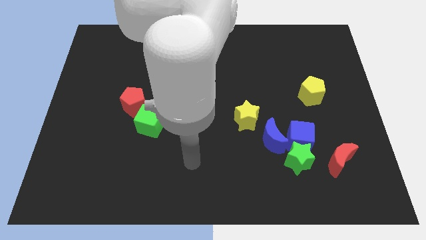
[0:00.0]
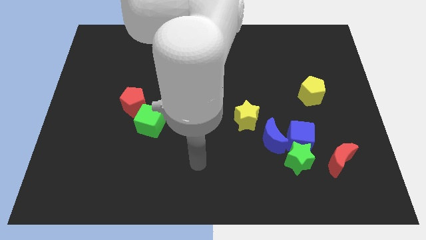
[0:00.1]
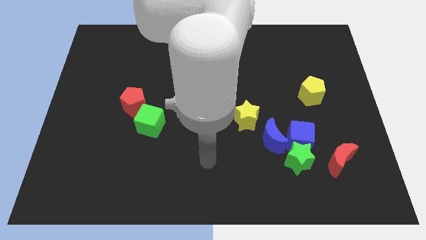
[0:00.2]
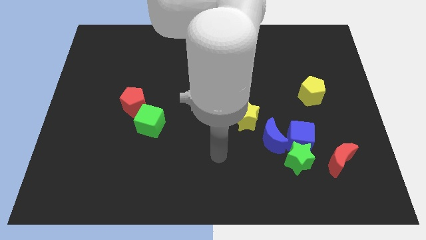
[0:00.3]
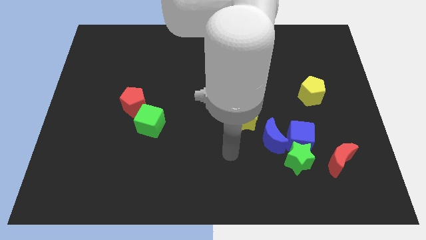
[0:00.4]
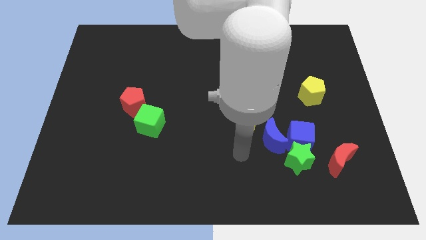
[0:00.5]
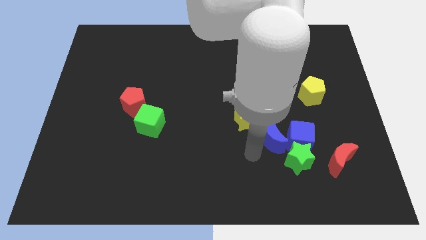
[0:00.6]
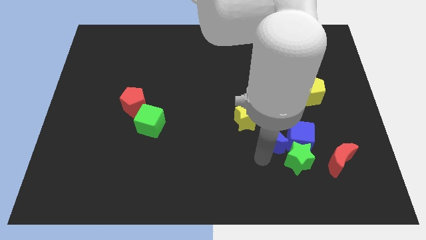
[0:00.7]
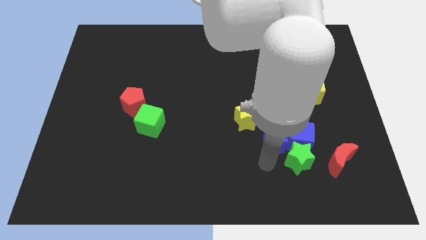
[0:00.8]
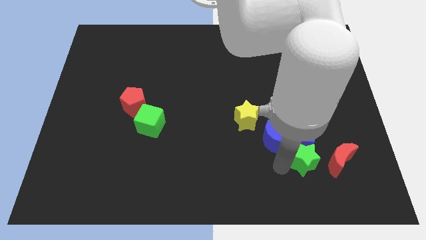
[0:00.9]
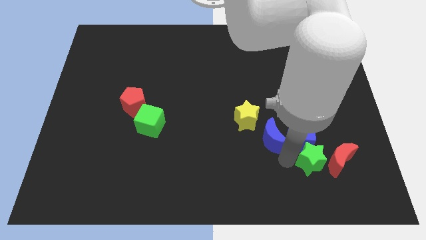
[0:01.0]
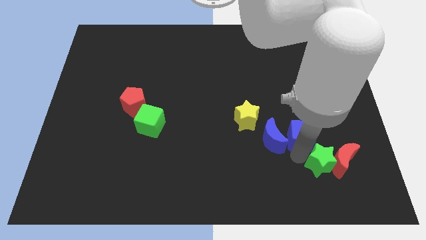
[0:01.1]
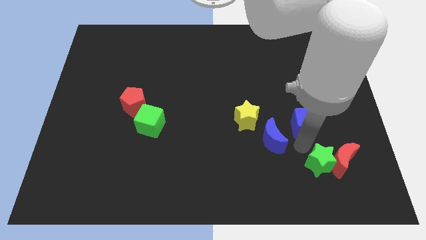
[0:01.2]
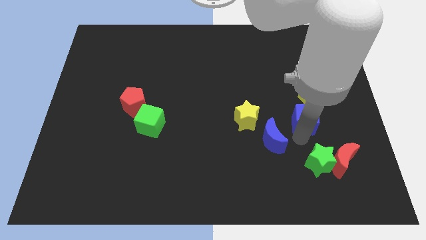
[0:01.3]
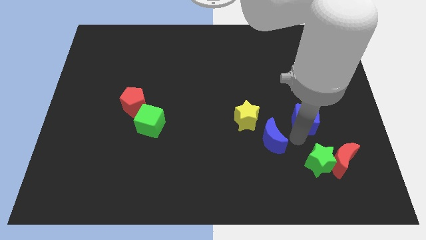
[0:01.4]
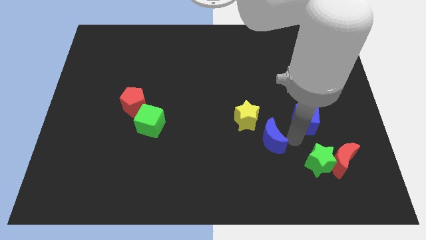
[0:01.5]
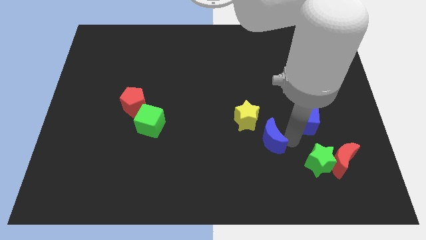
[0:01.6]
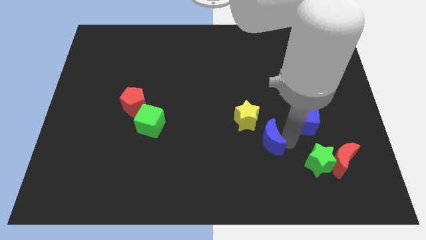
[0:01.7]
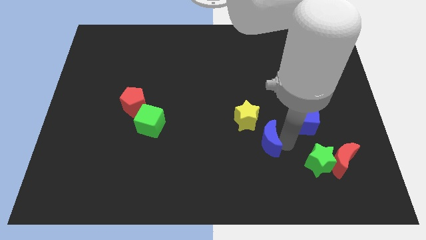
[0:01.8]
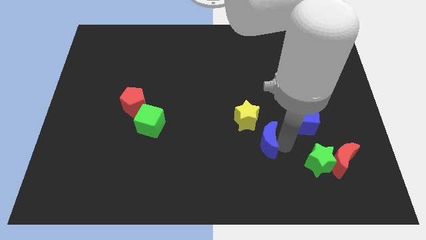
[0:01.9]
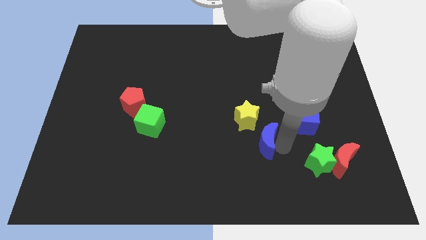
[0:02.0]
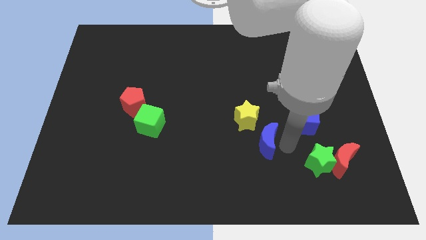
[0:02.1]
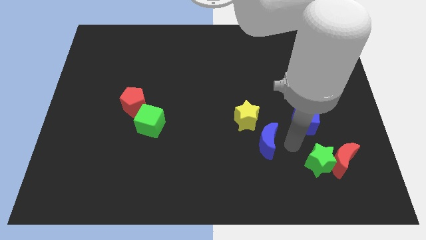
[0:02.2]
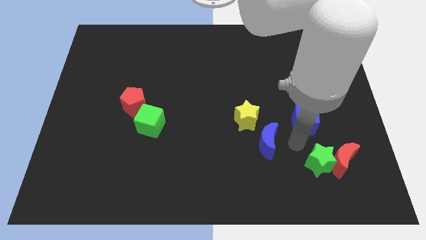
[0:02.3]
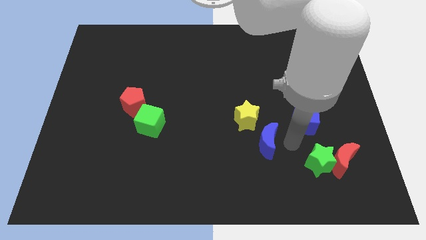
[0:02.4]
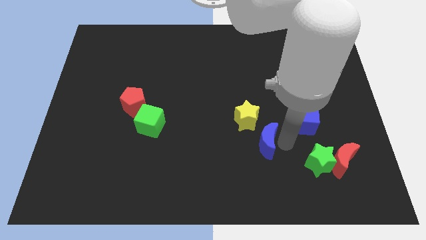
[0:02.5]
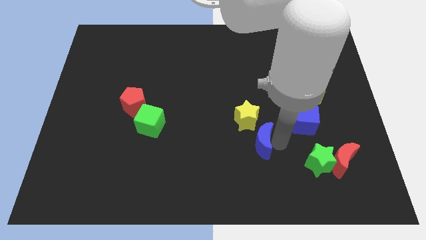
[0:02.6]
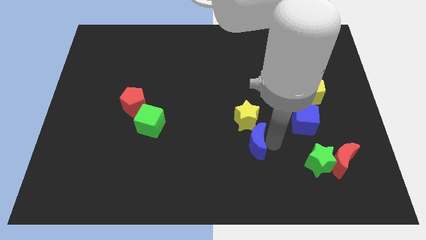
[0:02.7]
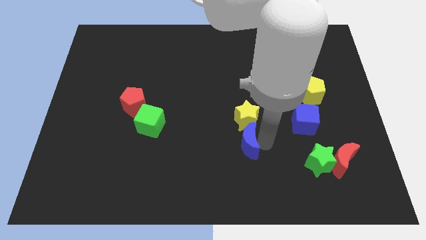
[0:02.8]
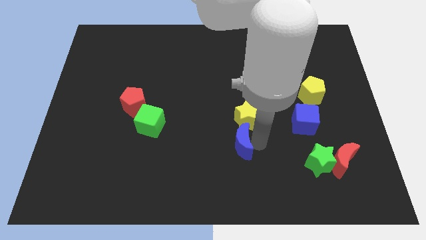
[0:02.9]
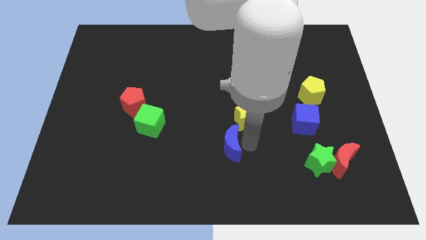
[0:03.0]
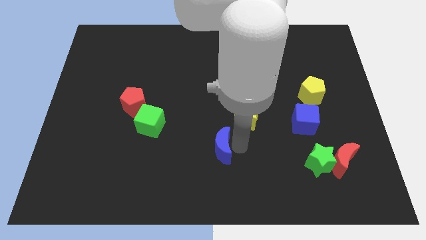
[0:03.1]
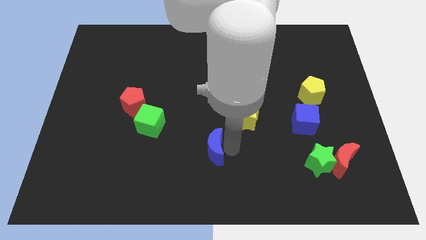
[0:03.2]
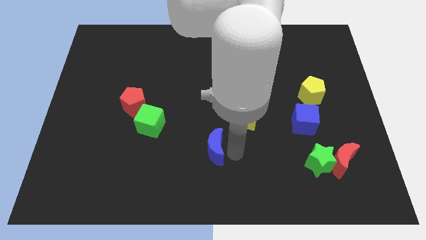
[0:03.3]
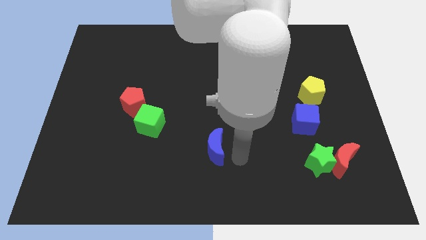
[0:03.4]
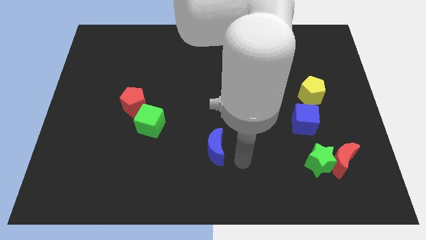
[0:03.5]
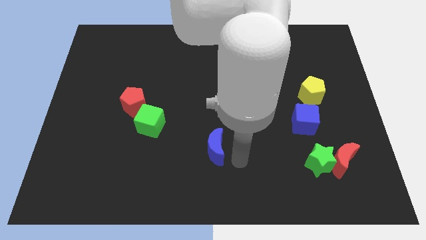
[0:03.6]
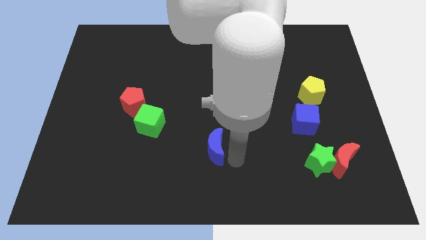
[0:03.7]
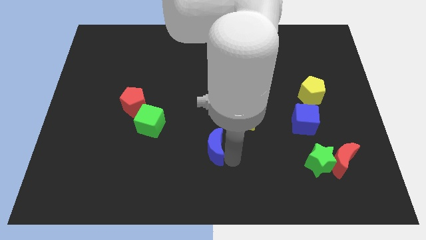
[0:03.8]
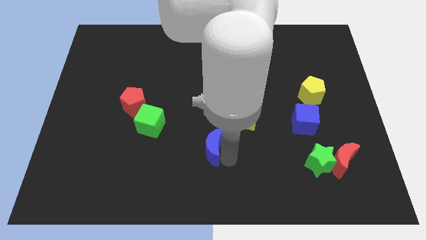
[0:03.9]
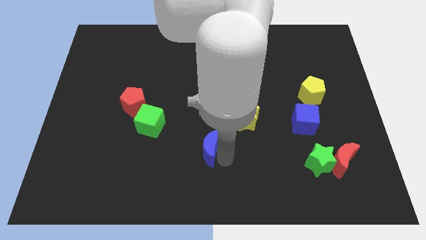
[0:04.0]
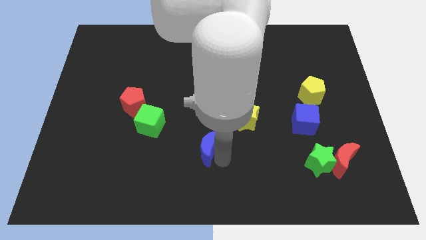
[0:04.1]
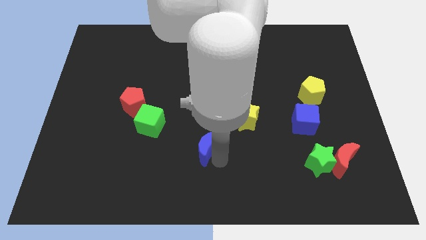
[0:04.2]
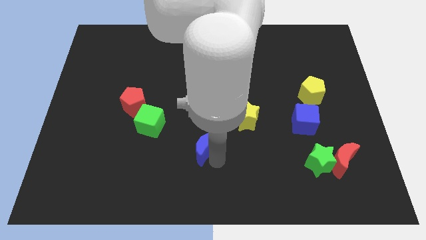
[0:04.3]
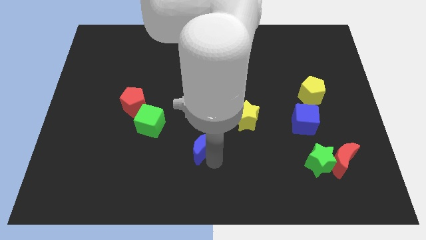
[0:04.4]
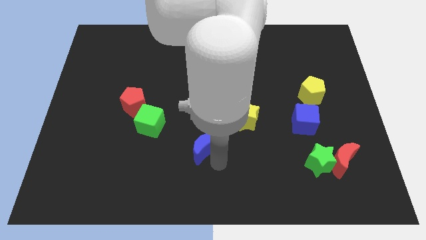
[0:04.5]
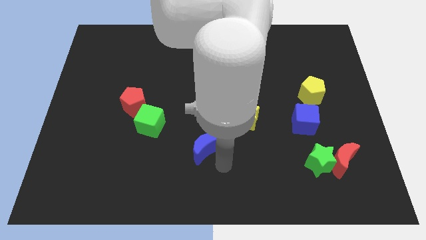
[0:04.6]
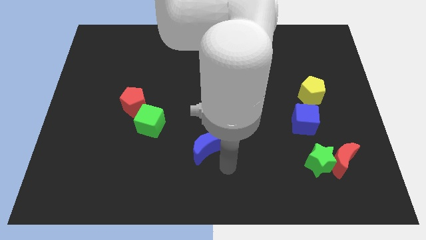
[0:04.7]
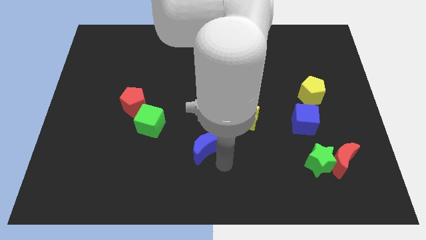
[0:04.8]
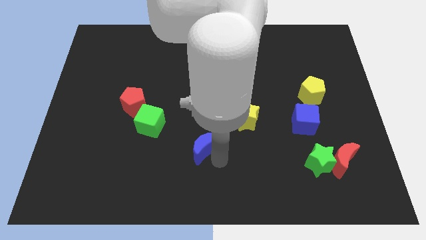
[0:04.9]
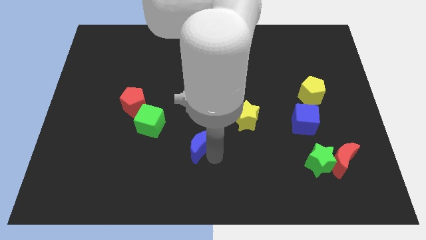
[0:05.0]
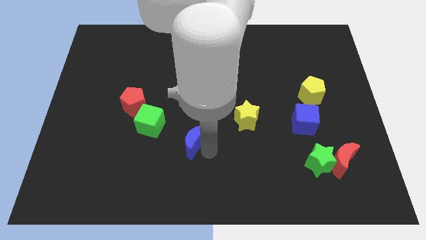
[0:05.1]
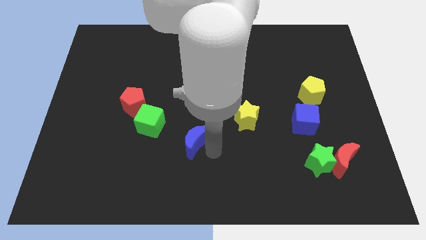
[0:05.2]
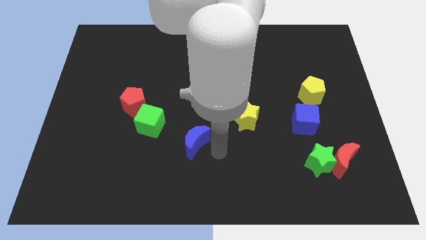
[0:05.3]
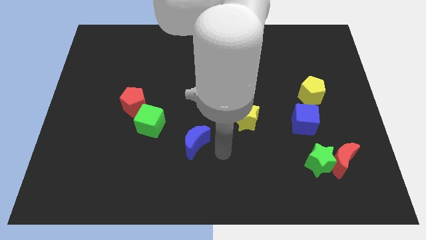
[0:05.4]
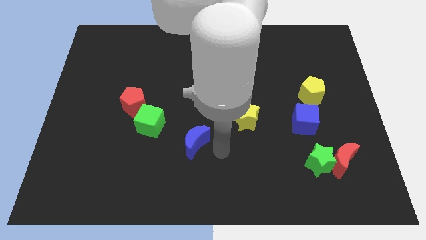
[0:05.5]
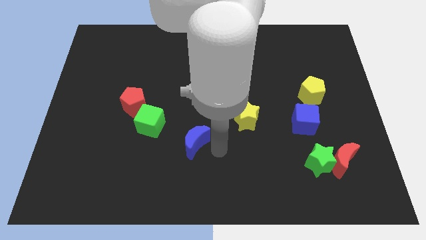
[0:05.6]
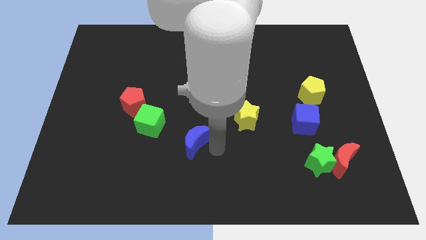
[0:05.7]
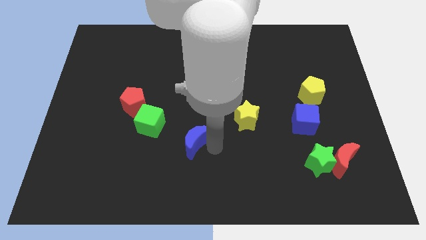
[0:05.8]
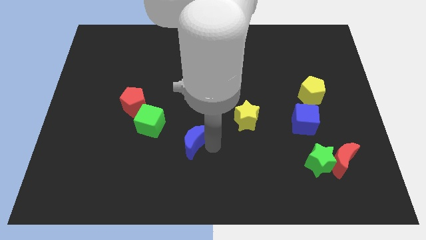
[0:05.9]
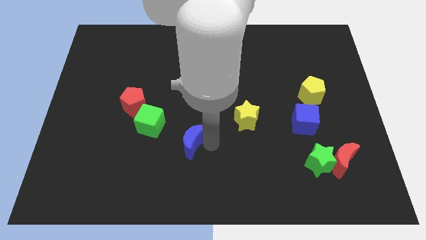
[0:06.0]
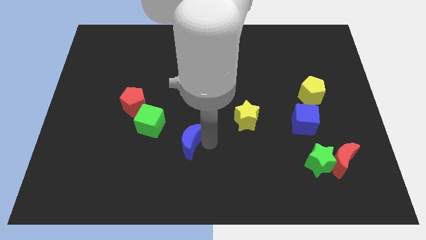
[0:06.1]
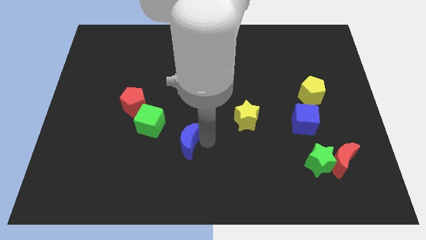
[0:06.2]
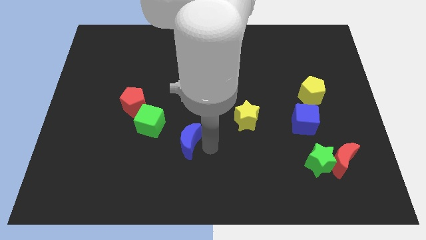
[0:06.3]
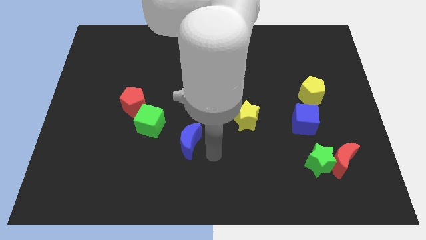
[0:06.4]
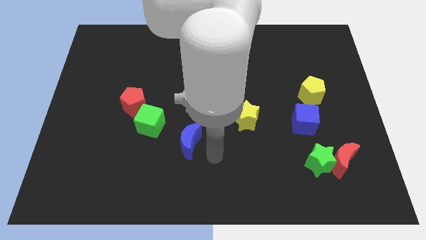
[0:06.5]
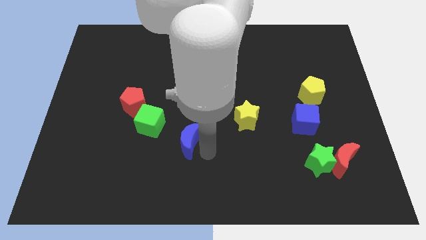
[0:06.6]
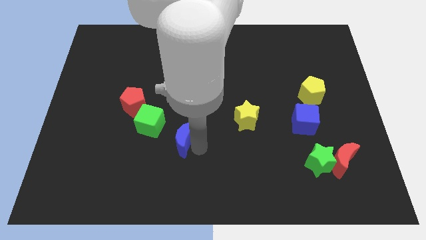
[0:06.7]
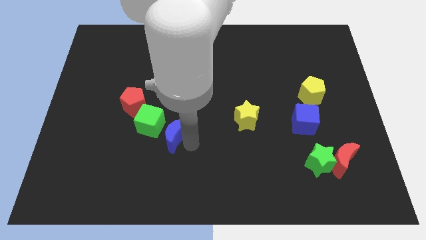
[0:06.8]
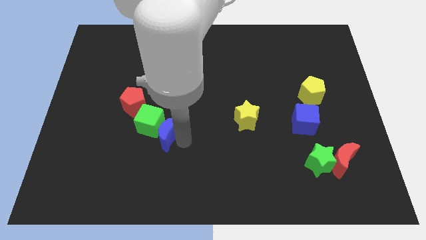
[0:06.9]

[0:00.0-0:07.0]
put the blue moon to the bottom right of the red pentagon
